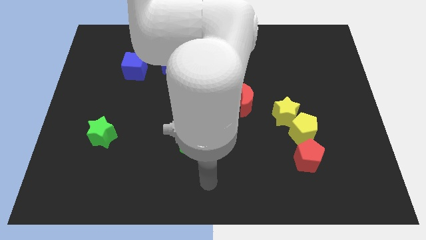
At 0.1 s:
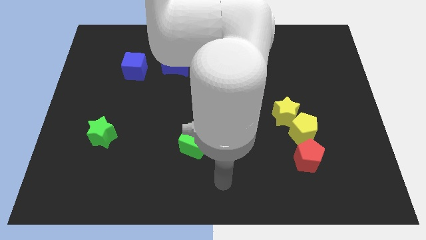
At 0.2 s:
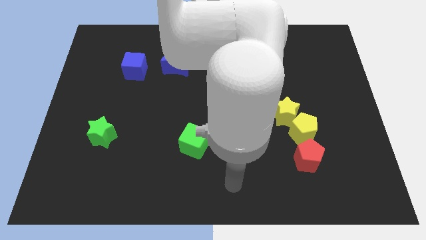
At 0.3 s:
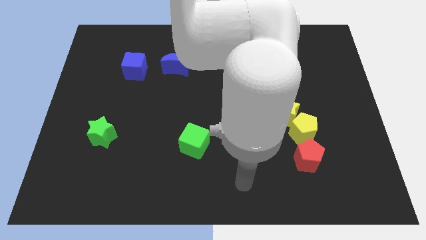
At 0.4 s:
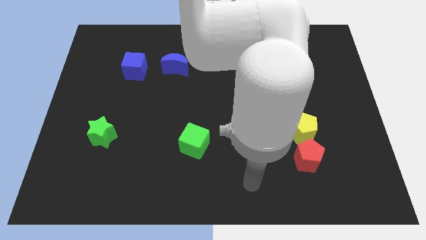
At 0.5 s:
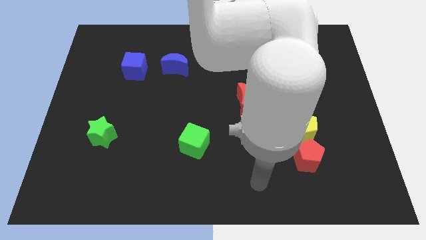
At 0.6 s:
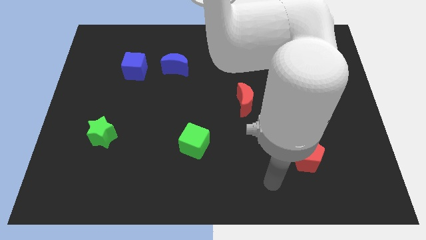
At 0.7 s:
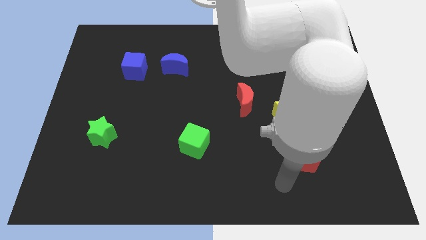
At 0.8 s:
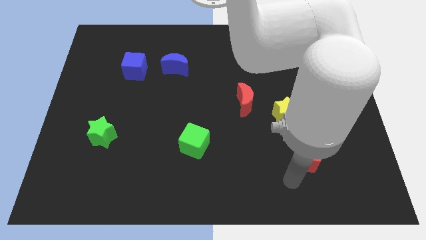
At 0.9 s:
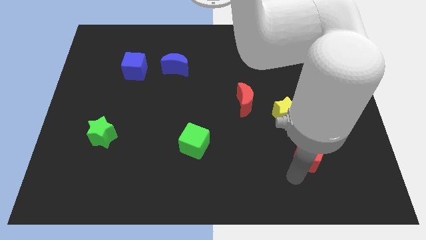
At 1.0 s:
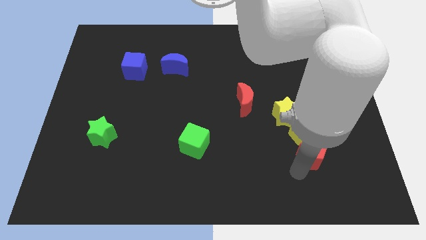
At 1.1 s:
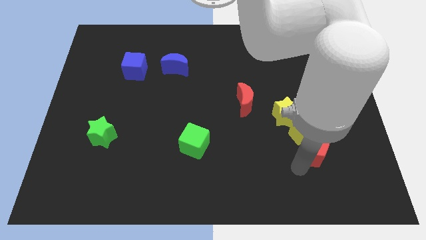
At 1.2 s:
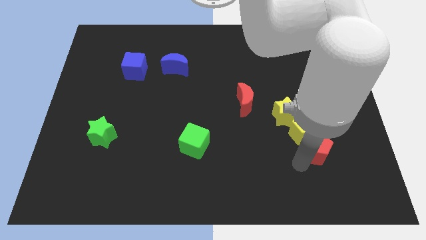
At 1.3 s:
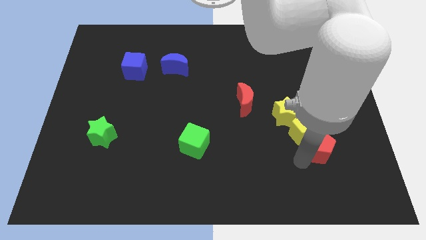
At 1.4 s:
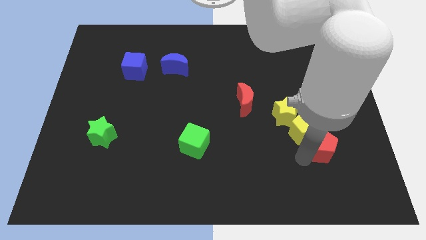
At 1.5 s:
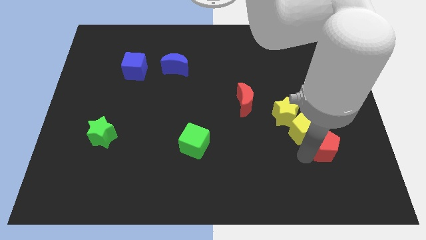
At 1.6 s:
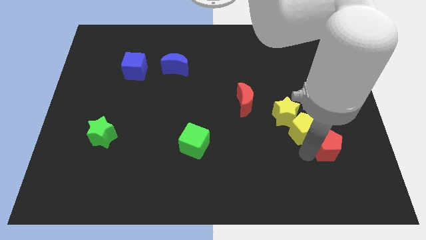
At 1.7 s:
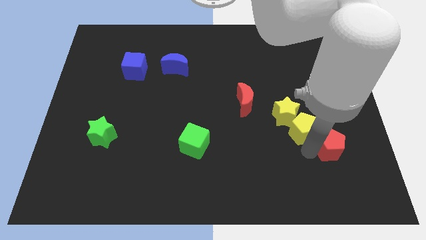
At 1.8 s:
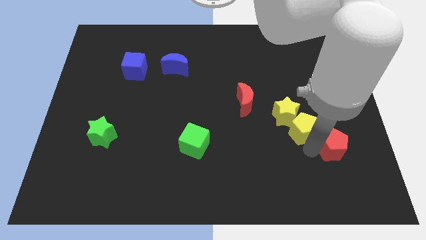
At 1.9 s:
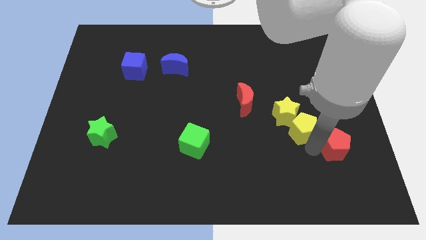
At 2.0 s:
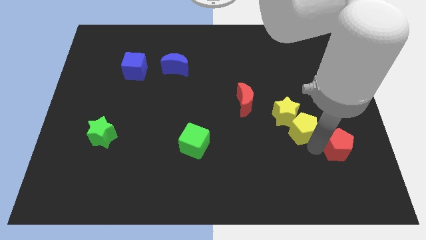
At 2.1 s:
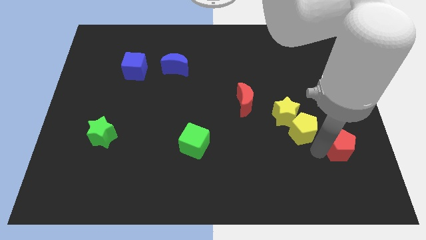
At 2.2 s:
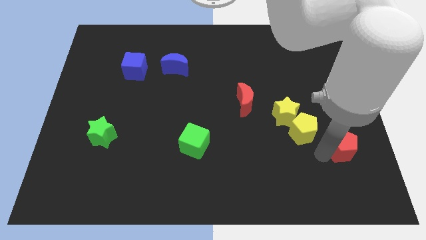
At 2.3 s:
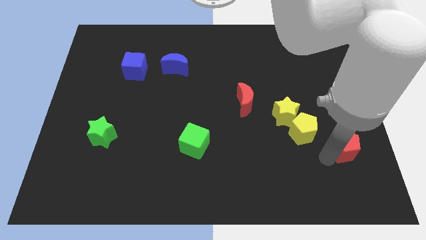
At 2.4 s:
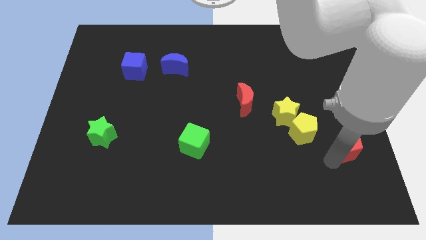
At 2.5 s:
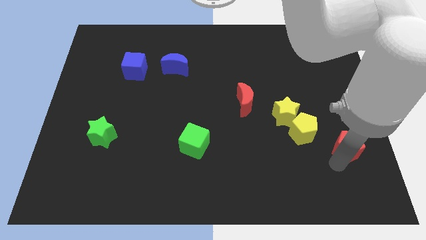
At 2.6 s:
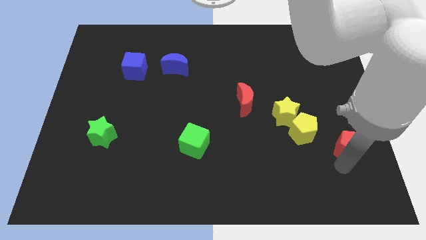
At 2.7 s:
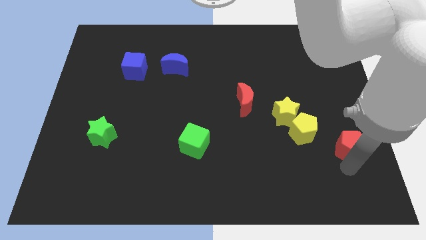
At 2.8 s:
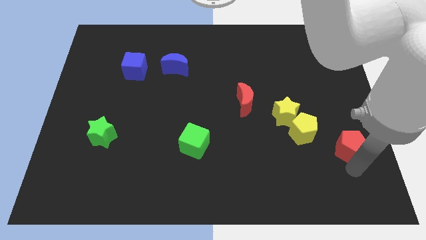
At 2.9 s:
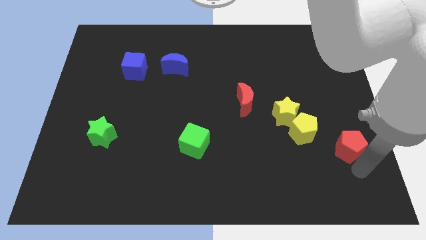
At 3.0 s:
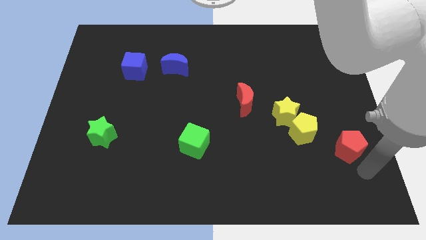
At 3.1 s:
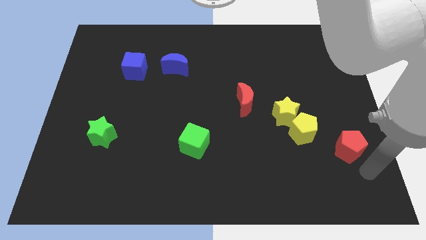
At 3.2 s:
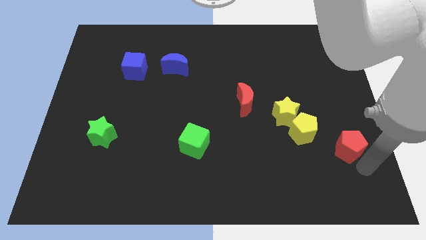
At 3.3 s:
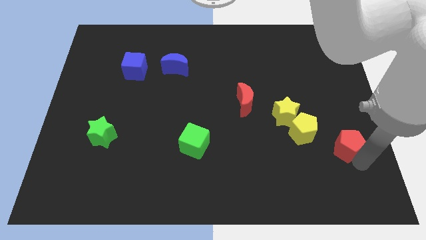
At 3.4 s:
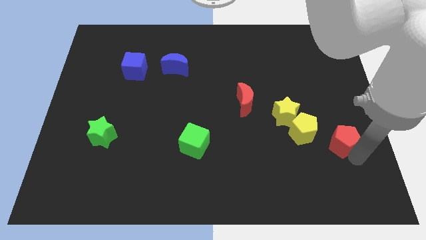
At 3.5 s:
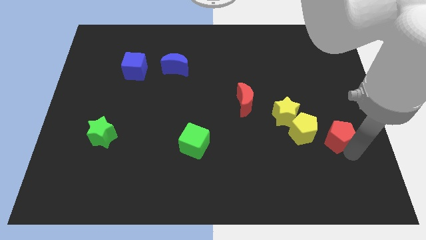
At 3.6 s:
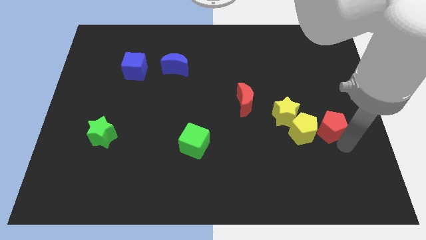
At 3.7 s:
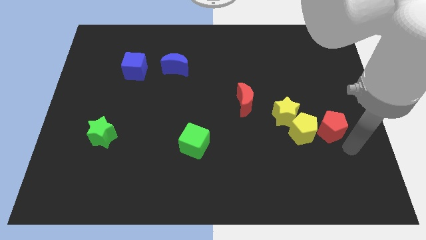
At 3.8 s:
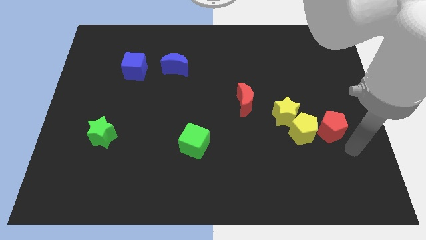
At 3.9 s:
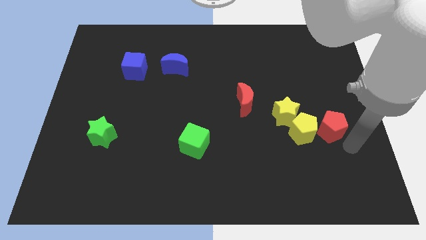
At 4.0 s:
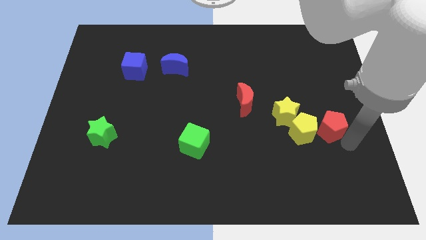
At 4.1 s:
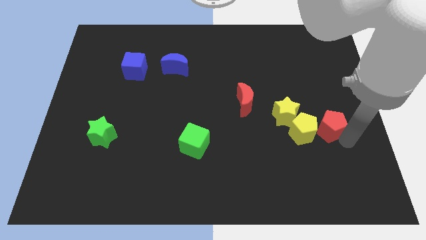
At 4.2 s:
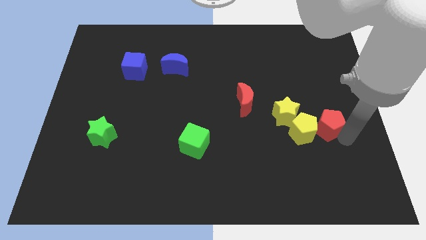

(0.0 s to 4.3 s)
slightly push the red pentagon upwards

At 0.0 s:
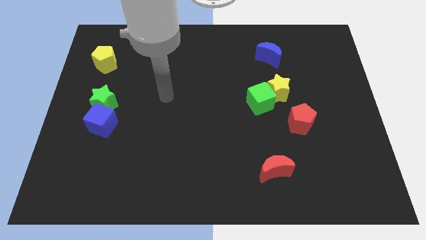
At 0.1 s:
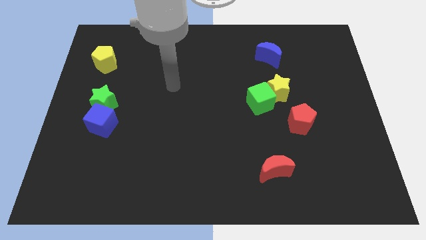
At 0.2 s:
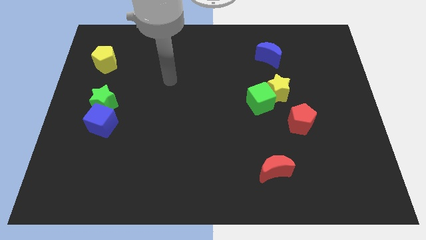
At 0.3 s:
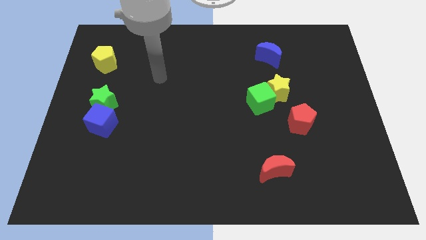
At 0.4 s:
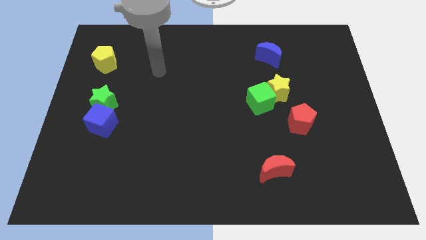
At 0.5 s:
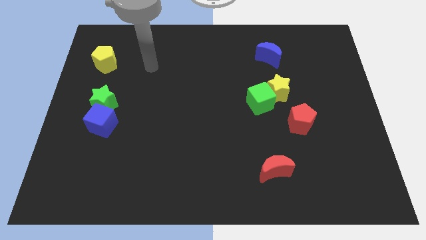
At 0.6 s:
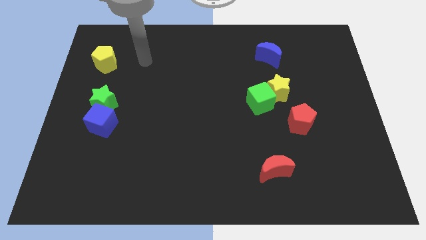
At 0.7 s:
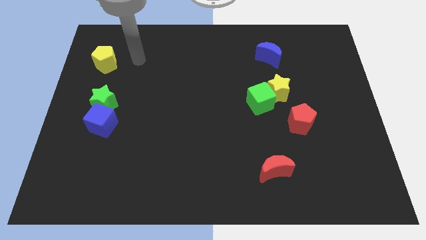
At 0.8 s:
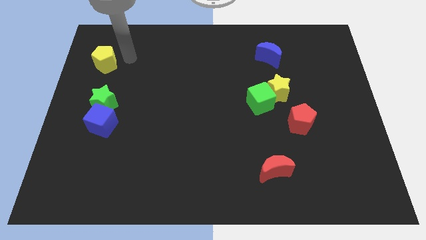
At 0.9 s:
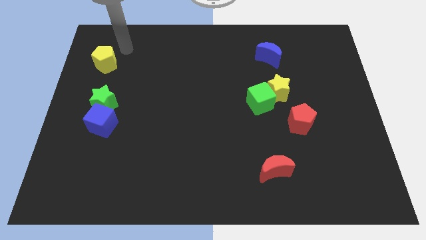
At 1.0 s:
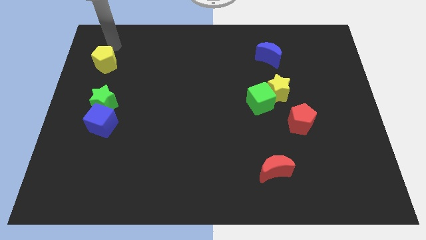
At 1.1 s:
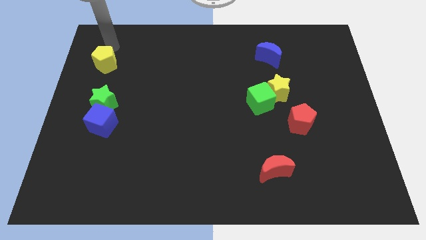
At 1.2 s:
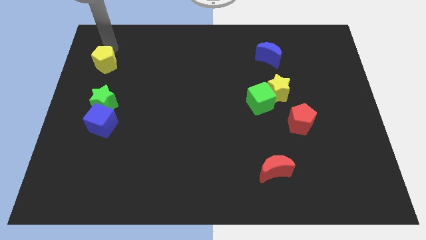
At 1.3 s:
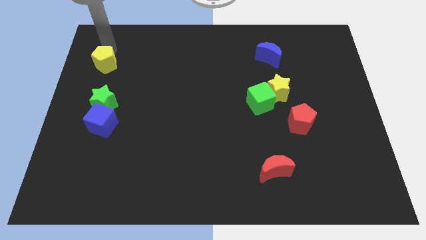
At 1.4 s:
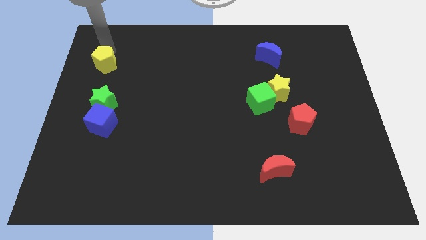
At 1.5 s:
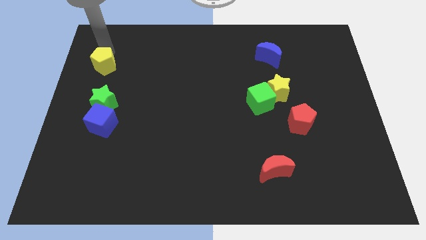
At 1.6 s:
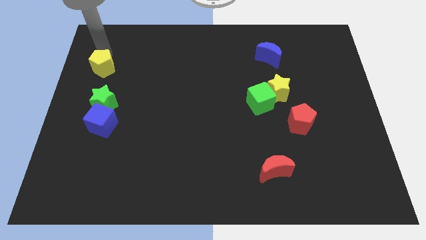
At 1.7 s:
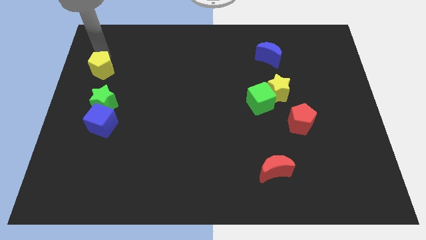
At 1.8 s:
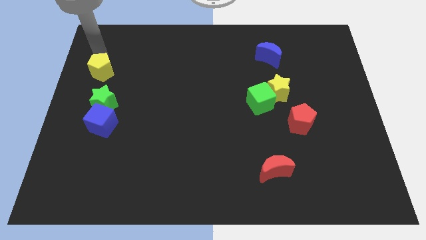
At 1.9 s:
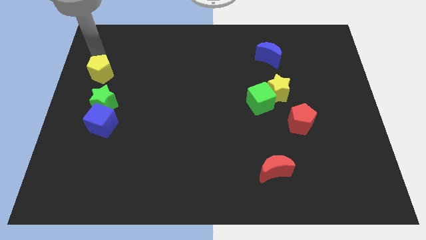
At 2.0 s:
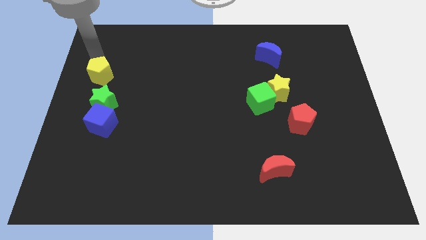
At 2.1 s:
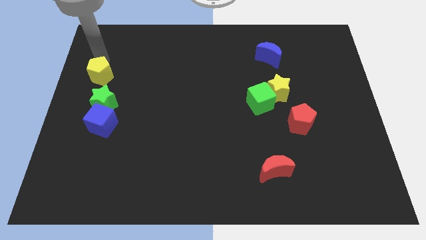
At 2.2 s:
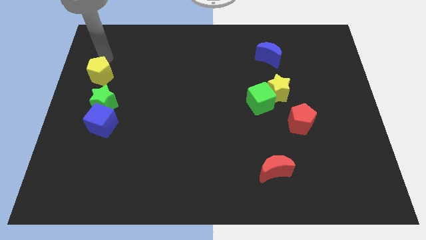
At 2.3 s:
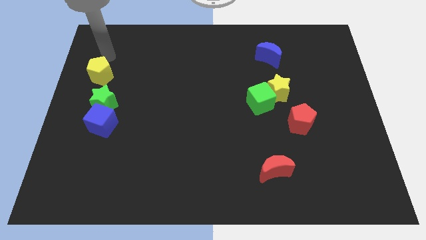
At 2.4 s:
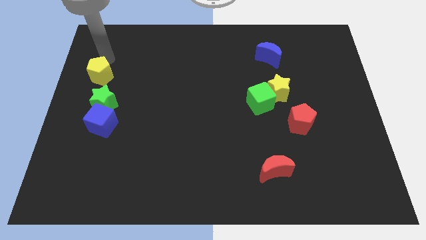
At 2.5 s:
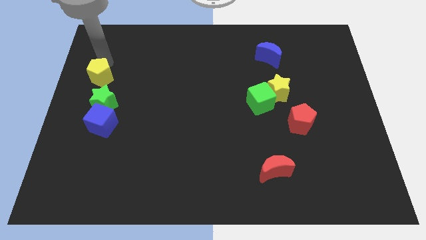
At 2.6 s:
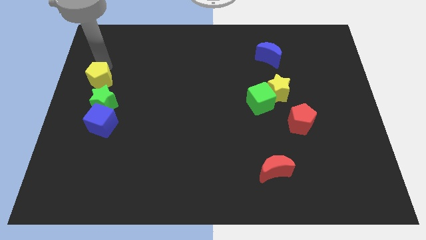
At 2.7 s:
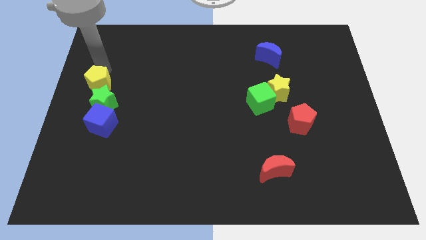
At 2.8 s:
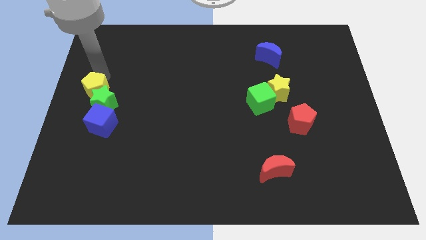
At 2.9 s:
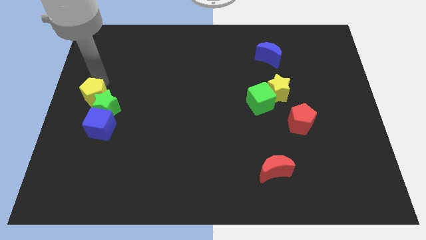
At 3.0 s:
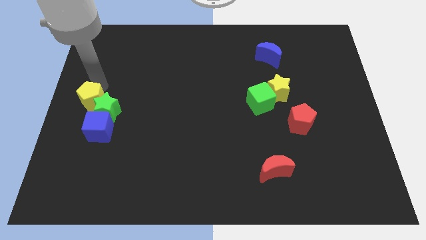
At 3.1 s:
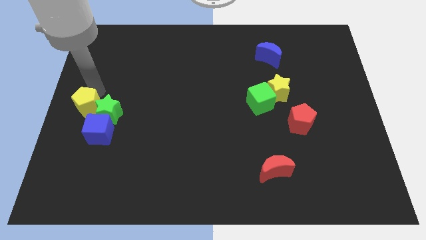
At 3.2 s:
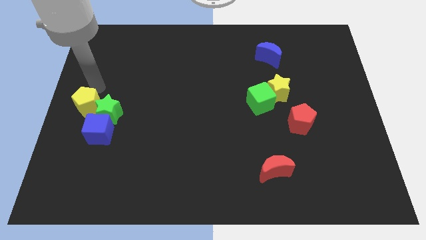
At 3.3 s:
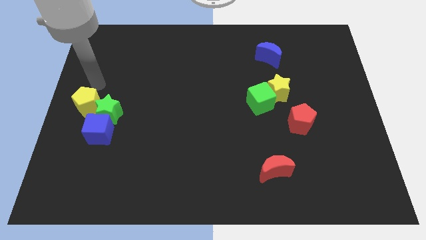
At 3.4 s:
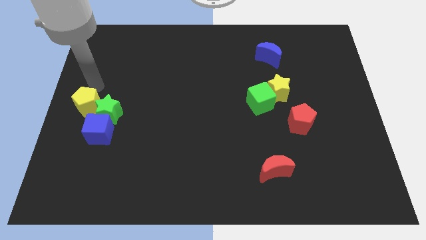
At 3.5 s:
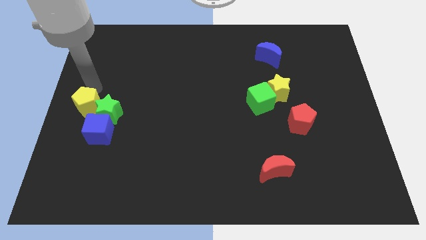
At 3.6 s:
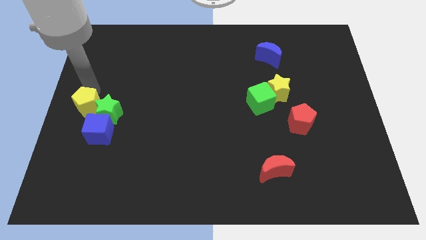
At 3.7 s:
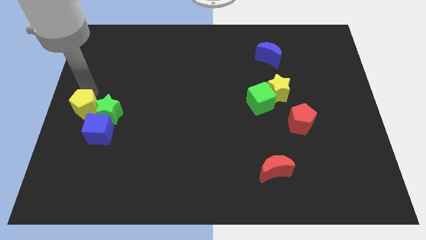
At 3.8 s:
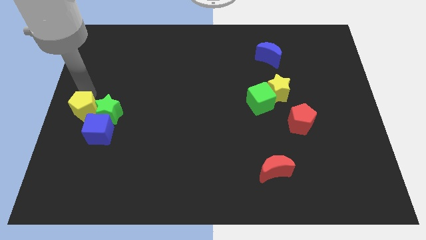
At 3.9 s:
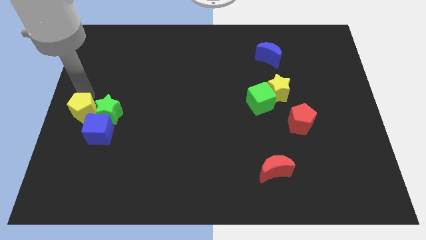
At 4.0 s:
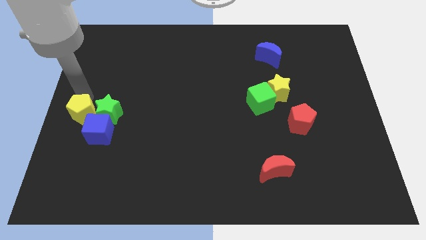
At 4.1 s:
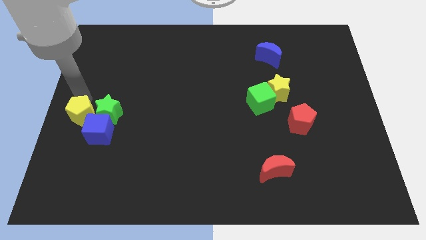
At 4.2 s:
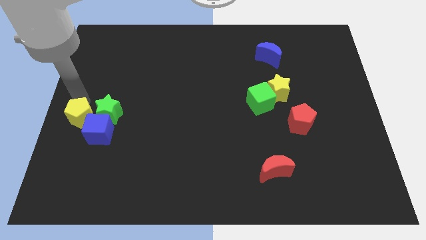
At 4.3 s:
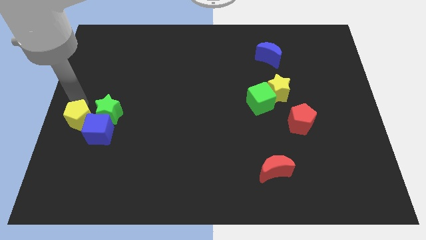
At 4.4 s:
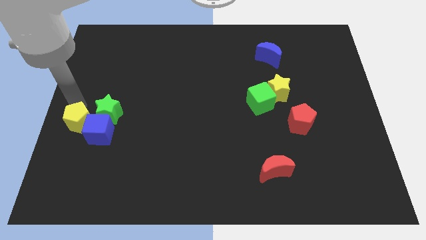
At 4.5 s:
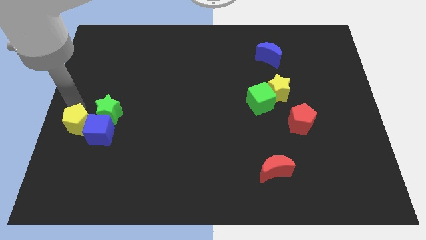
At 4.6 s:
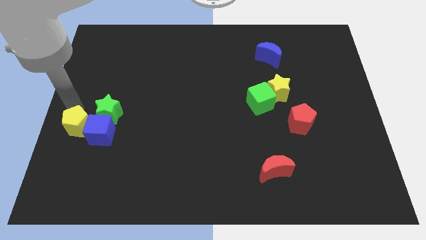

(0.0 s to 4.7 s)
slide the yellow pentagon down
